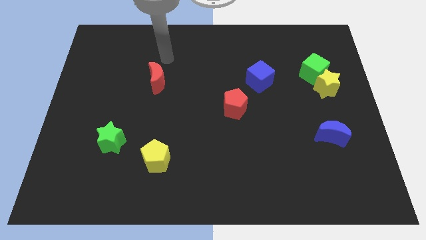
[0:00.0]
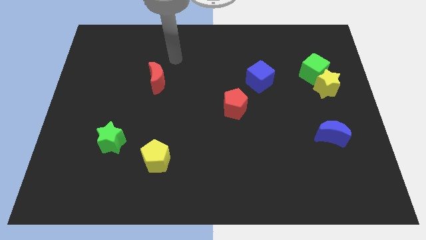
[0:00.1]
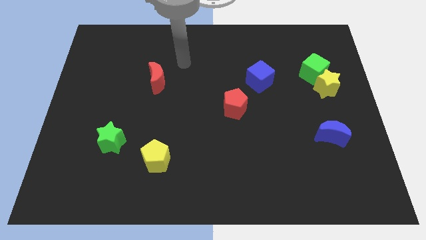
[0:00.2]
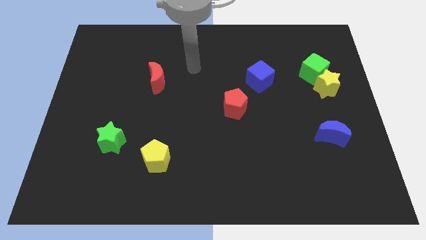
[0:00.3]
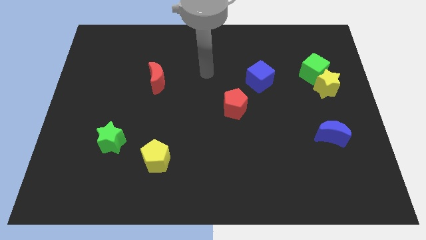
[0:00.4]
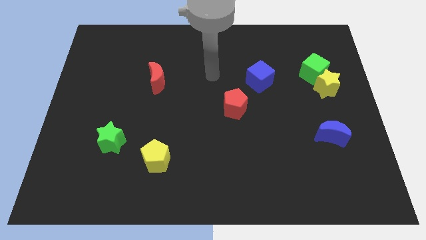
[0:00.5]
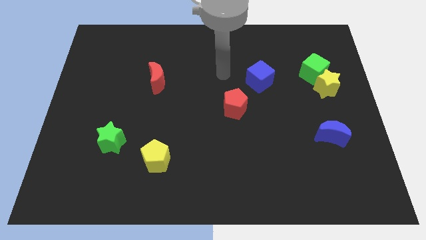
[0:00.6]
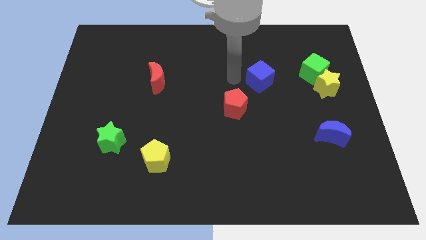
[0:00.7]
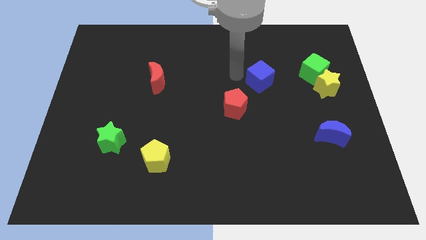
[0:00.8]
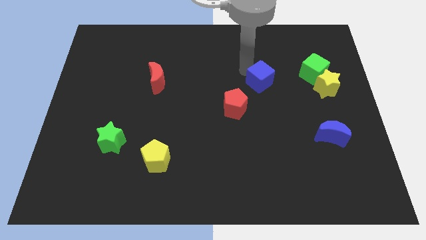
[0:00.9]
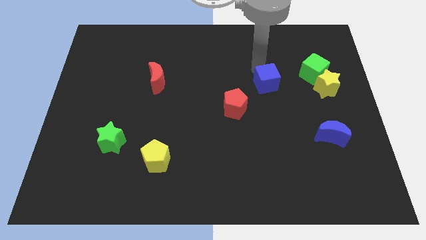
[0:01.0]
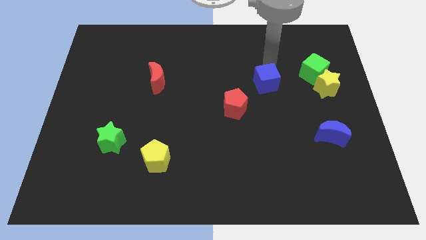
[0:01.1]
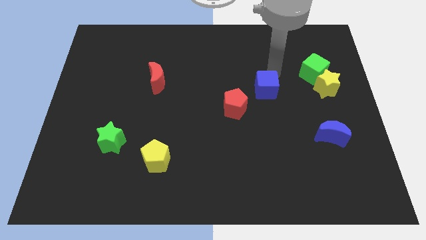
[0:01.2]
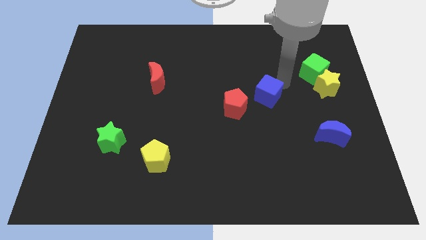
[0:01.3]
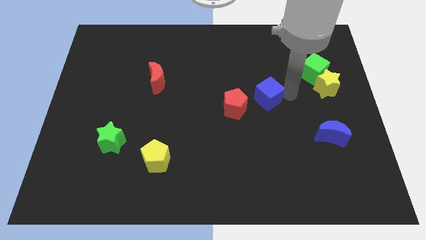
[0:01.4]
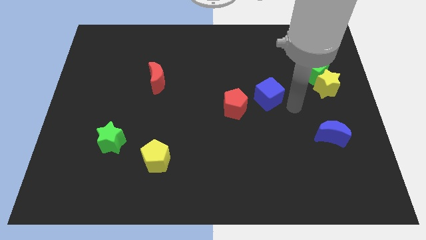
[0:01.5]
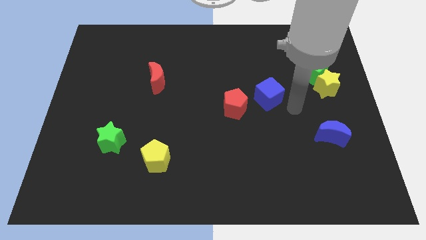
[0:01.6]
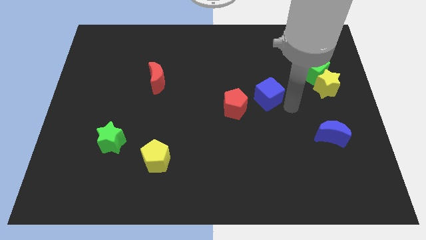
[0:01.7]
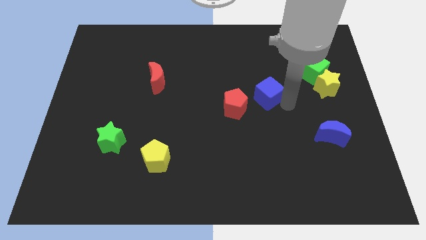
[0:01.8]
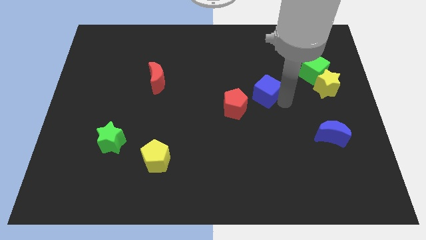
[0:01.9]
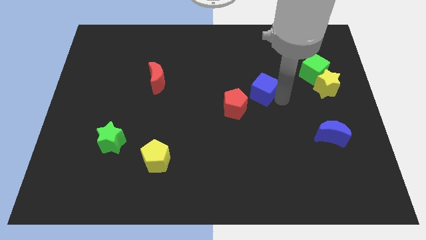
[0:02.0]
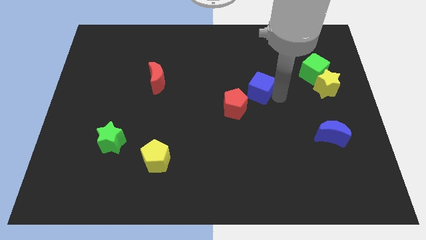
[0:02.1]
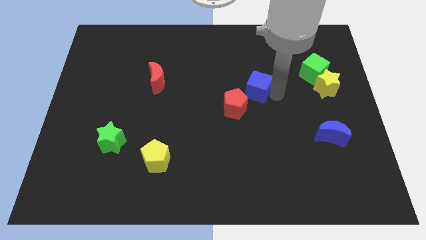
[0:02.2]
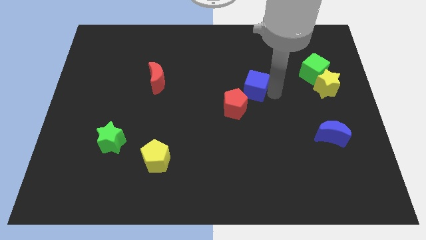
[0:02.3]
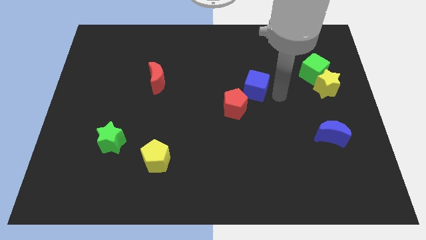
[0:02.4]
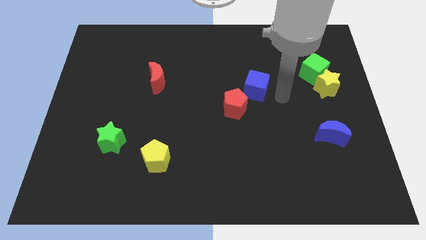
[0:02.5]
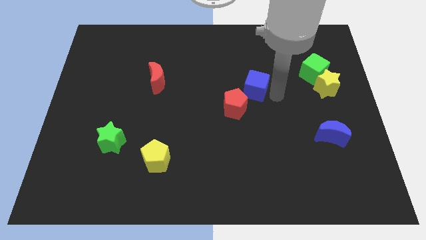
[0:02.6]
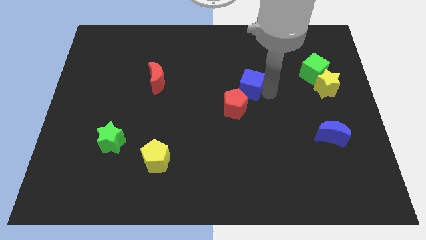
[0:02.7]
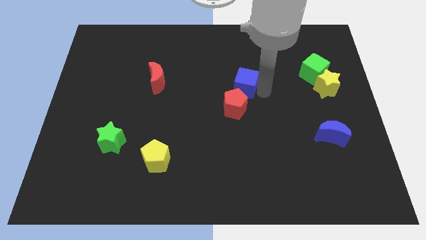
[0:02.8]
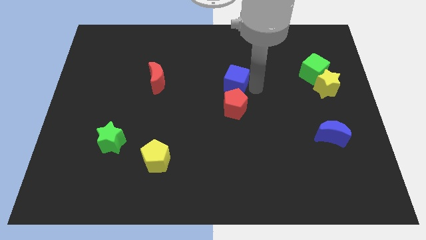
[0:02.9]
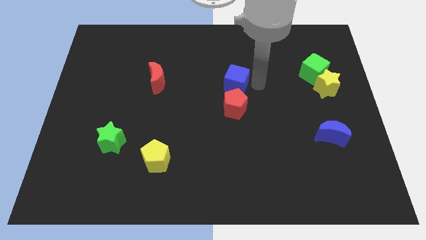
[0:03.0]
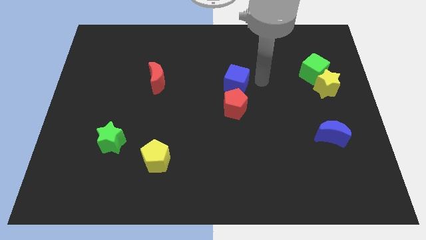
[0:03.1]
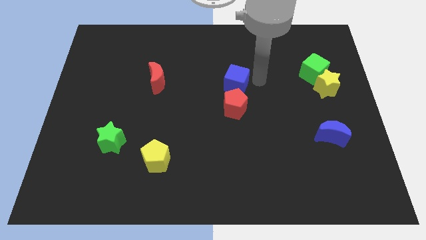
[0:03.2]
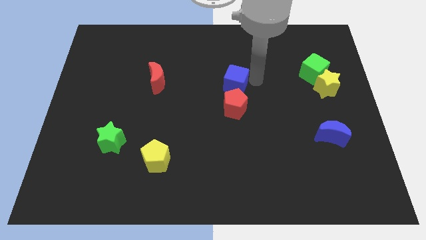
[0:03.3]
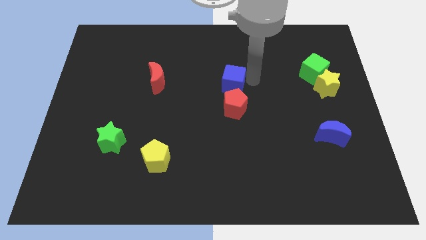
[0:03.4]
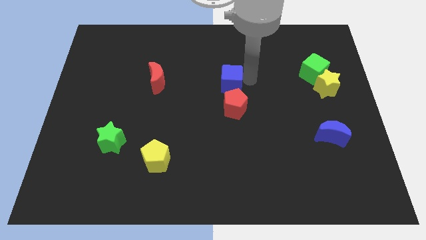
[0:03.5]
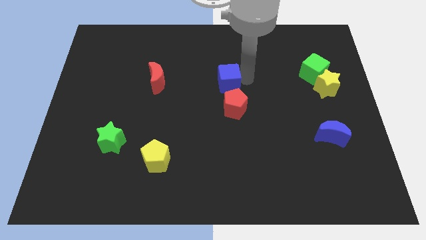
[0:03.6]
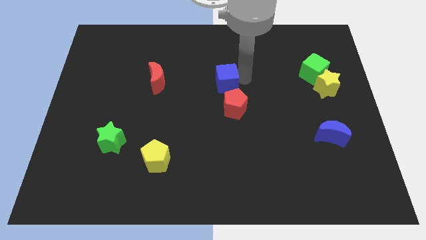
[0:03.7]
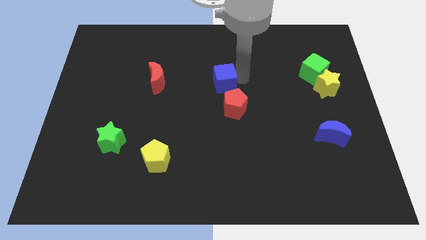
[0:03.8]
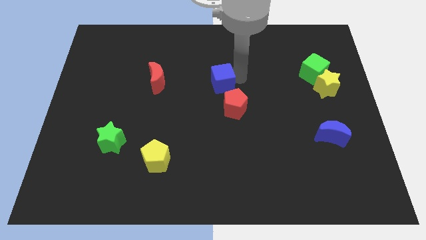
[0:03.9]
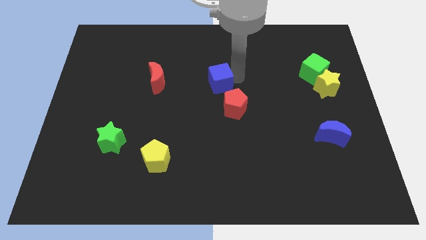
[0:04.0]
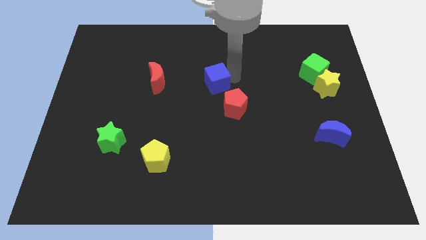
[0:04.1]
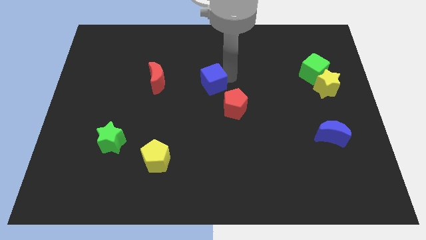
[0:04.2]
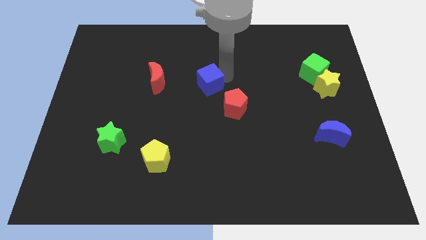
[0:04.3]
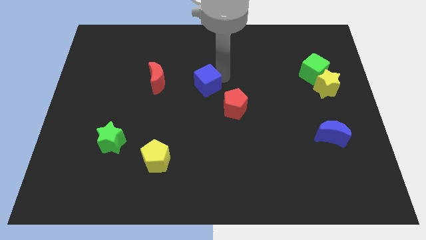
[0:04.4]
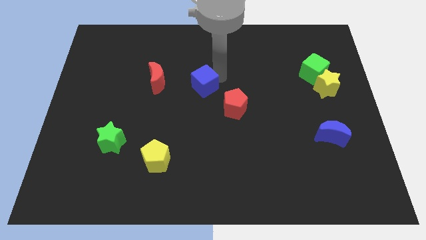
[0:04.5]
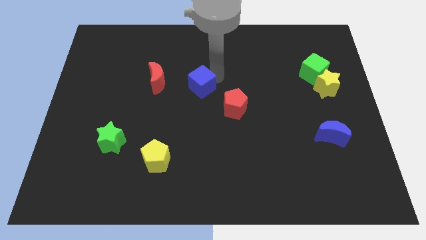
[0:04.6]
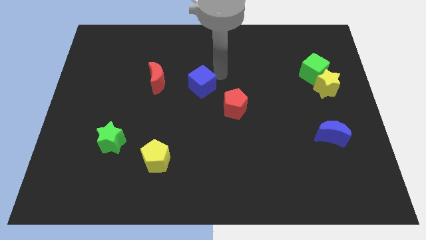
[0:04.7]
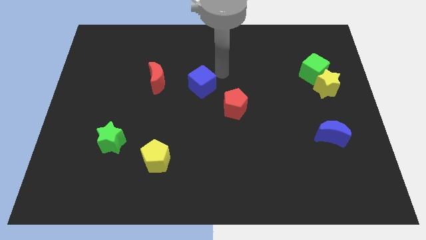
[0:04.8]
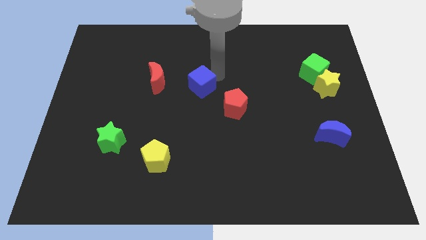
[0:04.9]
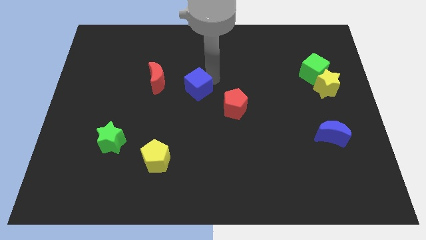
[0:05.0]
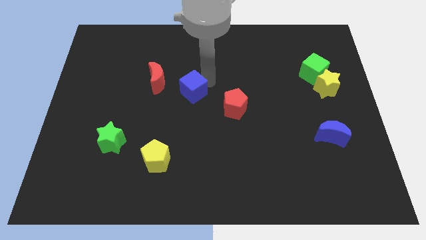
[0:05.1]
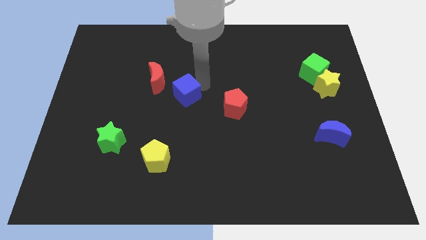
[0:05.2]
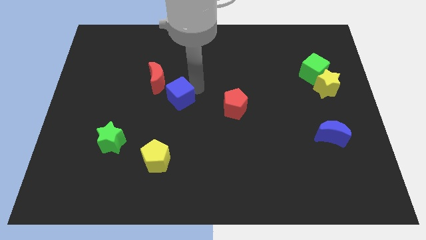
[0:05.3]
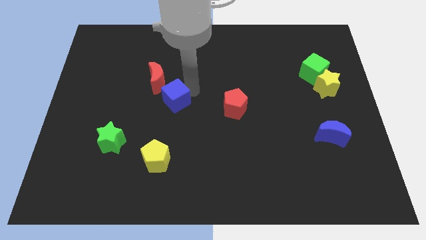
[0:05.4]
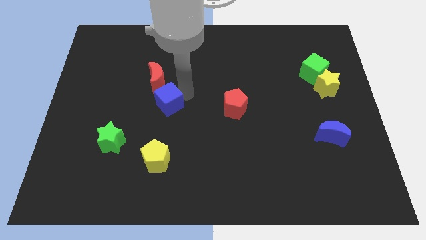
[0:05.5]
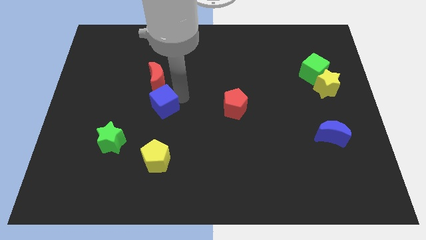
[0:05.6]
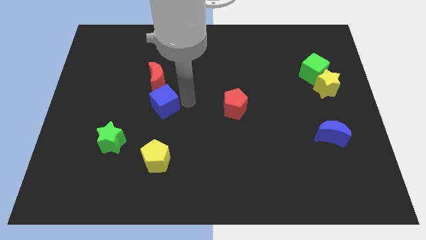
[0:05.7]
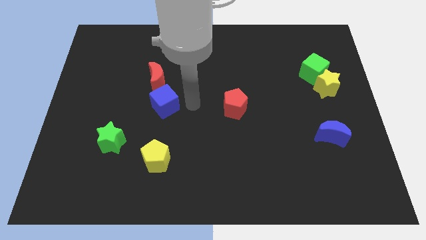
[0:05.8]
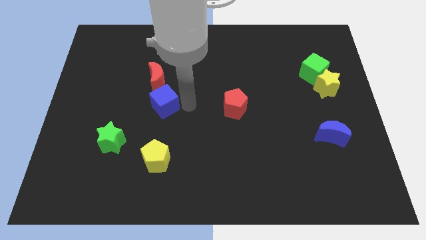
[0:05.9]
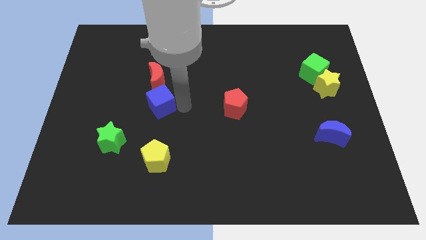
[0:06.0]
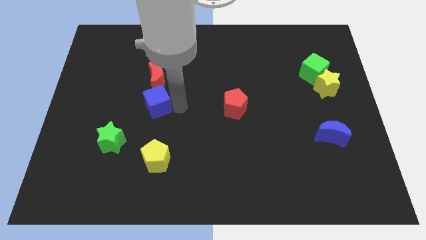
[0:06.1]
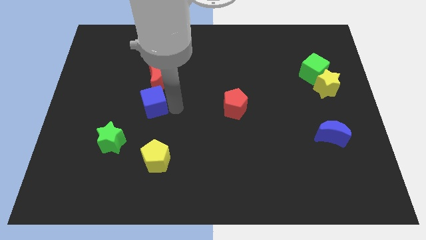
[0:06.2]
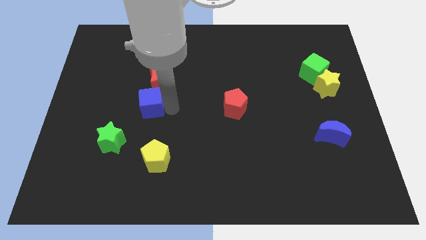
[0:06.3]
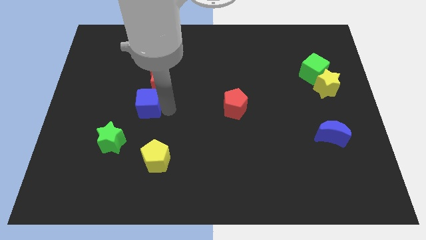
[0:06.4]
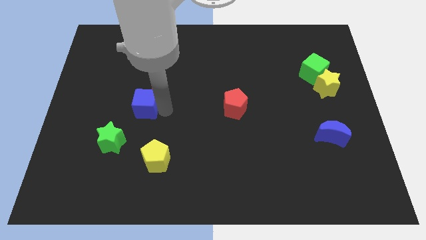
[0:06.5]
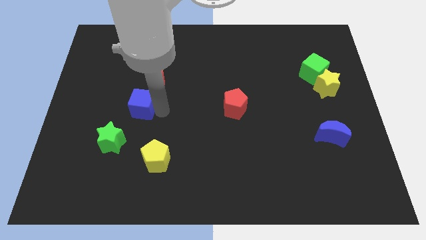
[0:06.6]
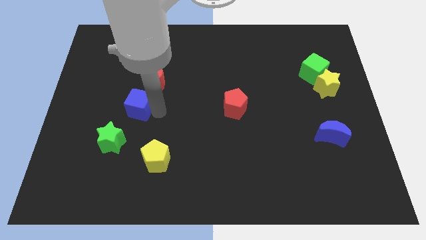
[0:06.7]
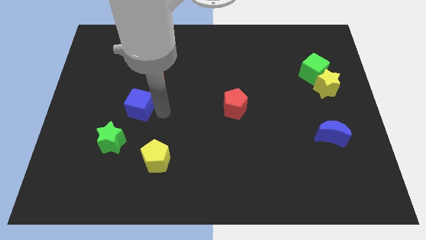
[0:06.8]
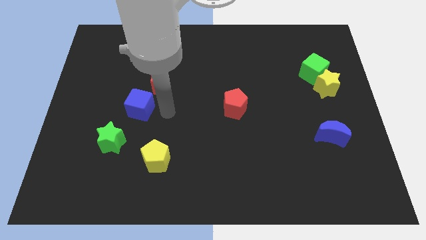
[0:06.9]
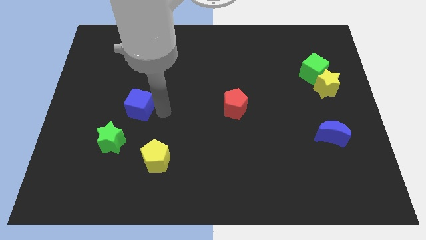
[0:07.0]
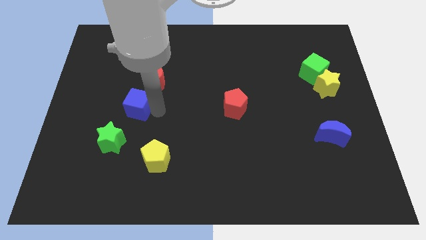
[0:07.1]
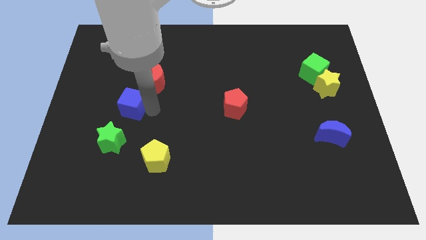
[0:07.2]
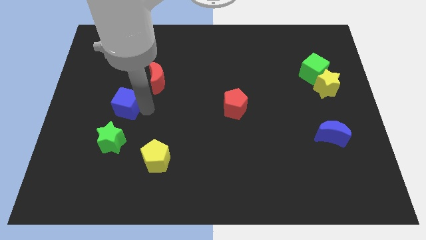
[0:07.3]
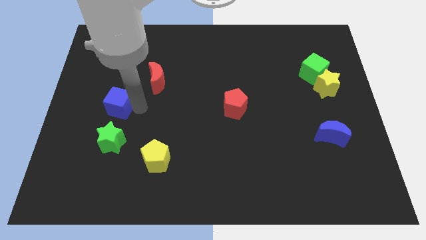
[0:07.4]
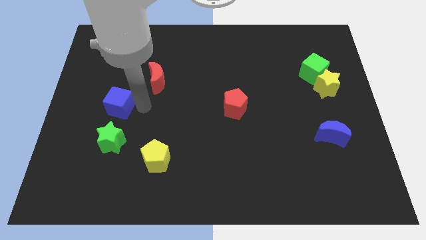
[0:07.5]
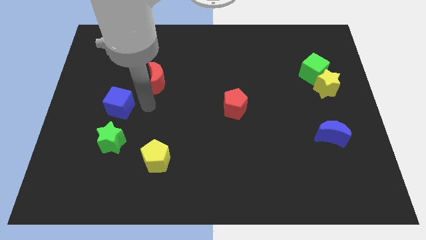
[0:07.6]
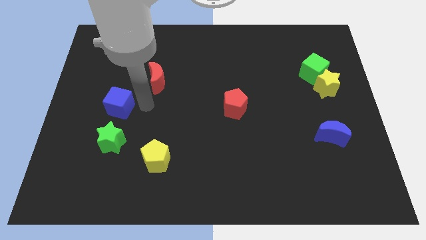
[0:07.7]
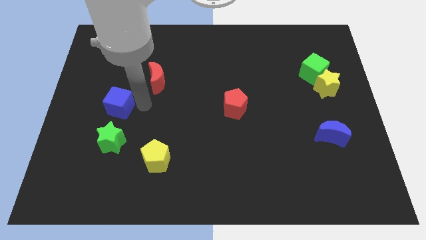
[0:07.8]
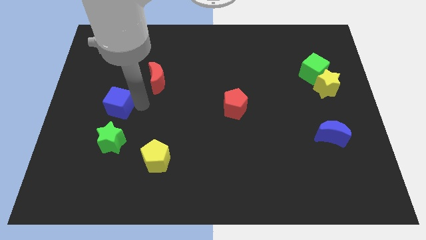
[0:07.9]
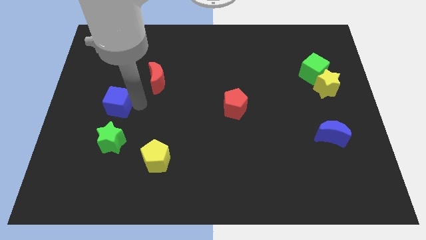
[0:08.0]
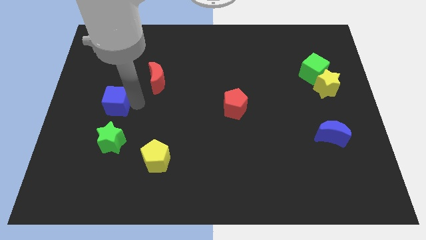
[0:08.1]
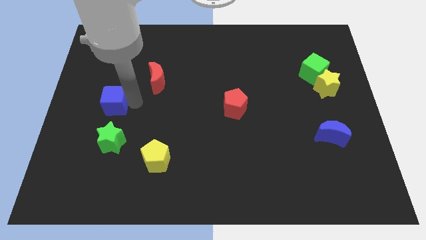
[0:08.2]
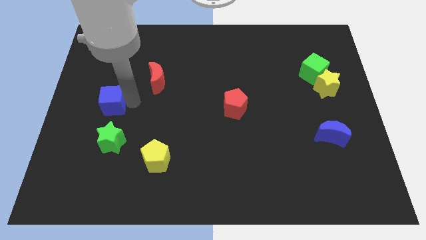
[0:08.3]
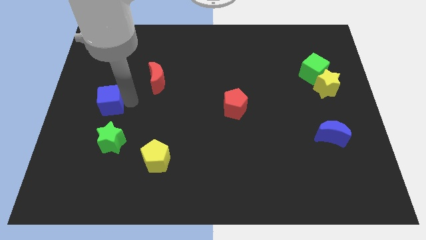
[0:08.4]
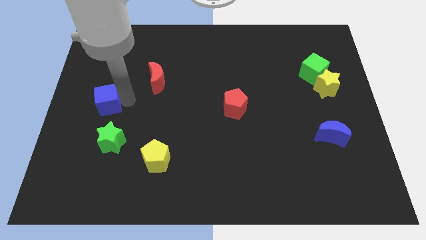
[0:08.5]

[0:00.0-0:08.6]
put the blue cube to the left side of the board
